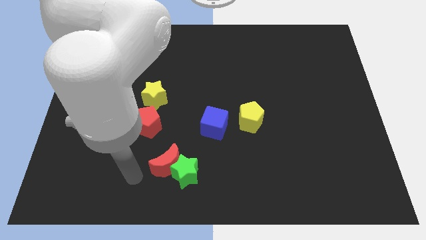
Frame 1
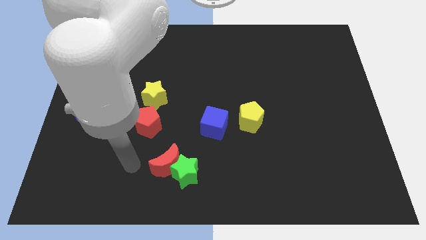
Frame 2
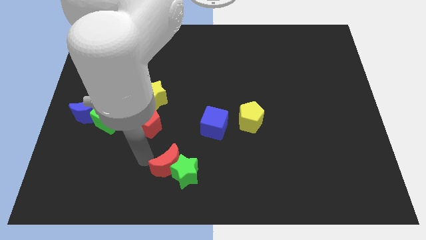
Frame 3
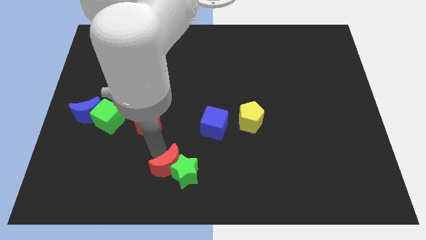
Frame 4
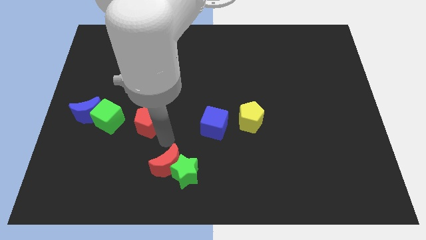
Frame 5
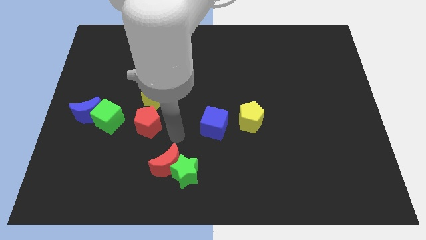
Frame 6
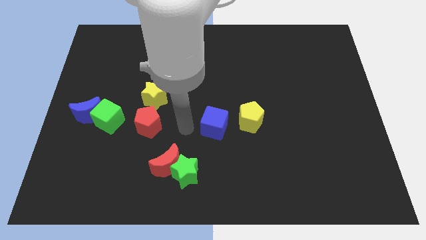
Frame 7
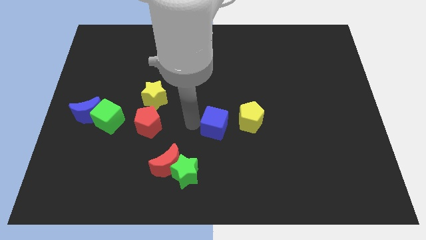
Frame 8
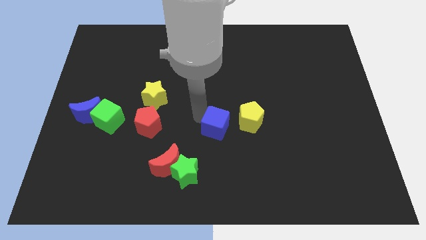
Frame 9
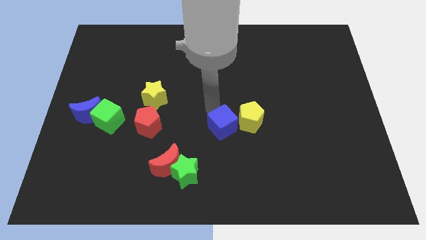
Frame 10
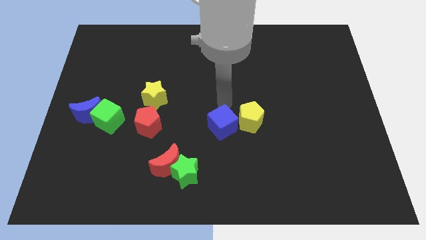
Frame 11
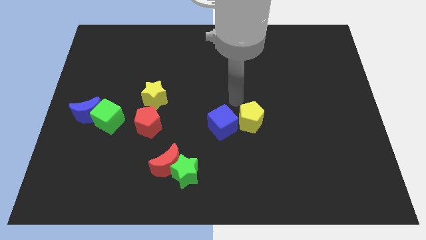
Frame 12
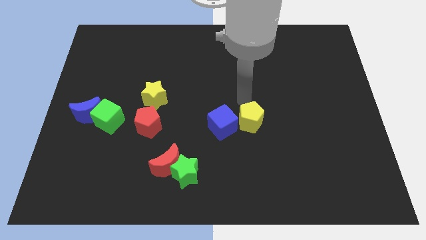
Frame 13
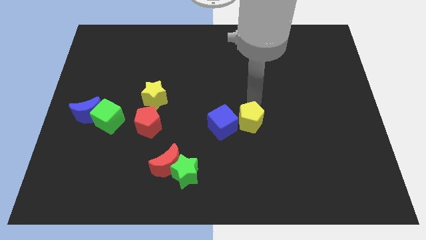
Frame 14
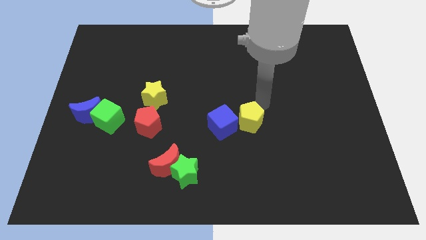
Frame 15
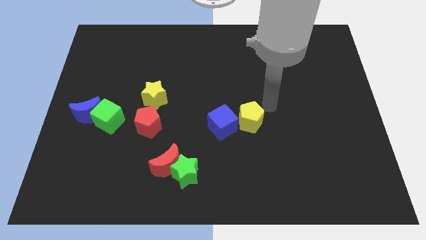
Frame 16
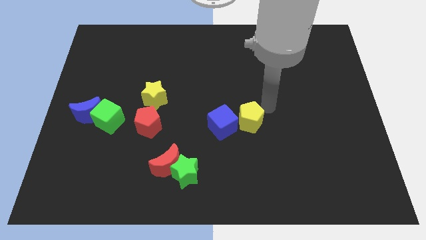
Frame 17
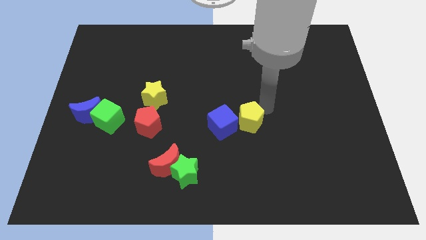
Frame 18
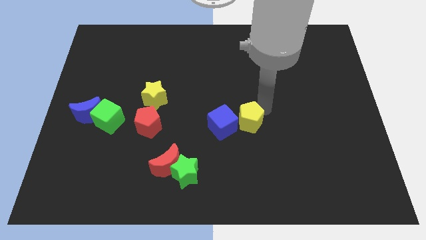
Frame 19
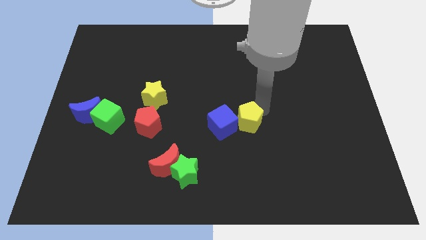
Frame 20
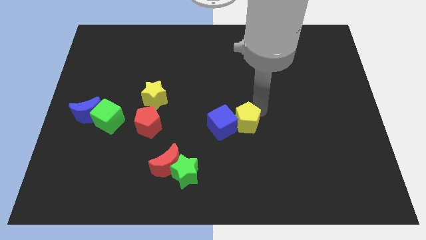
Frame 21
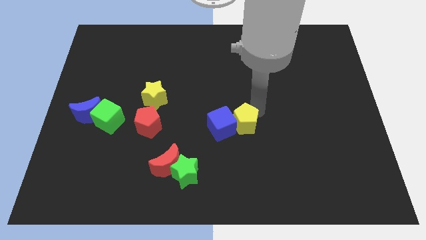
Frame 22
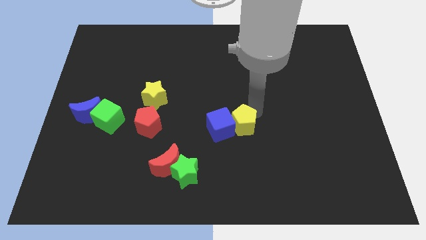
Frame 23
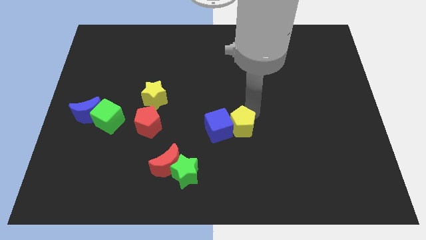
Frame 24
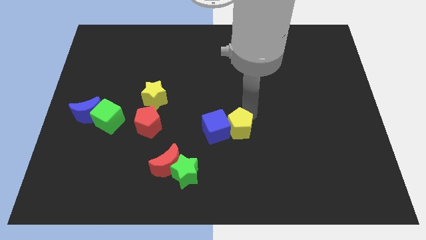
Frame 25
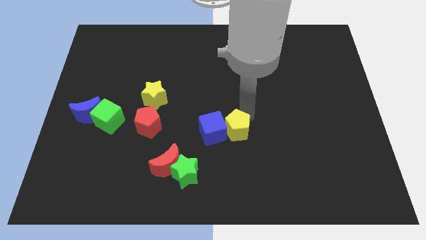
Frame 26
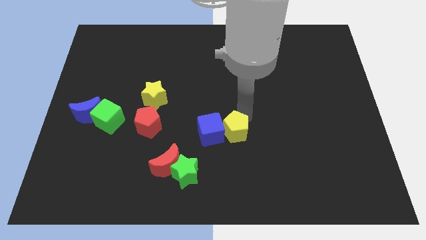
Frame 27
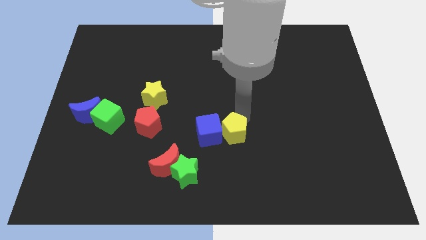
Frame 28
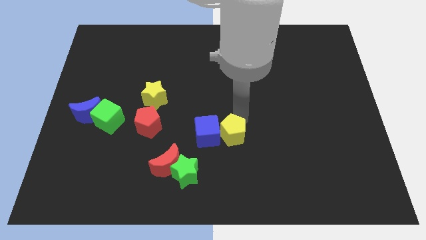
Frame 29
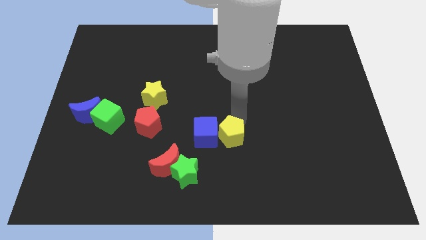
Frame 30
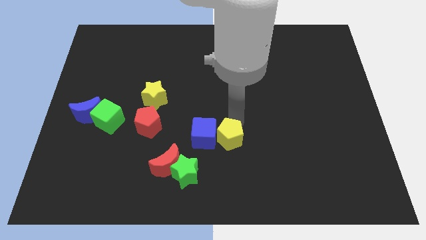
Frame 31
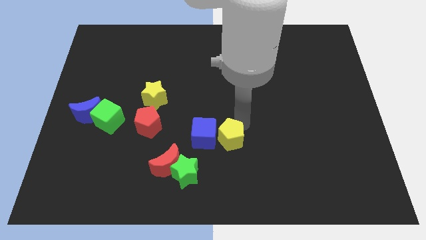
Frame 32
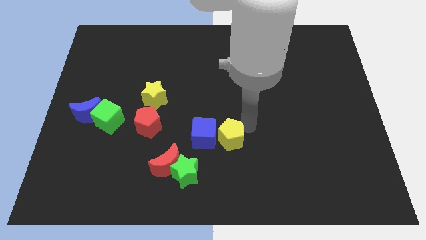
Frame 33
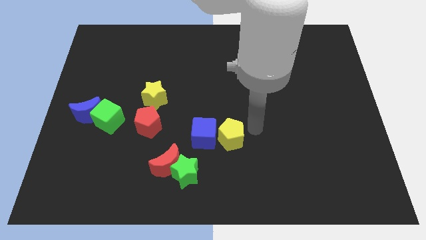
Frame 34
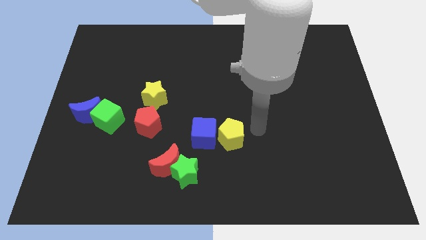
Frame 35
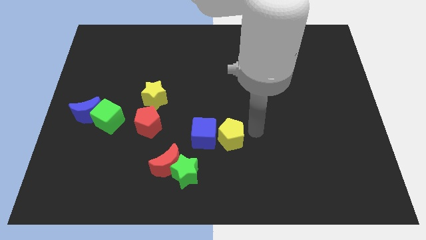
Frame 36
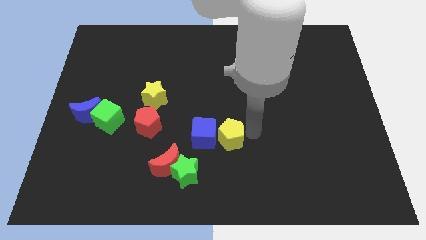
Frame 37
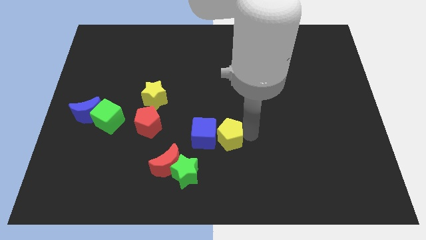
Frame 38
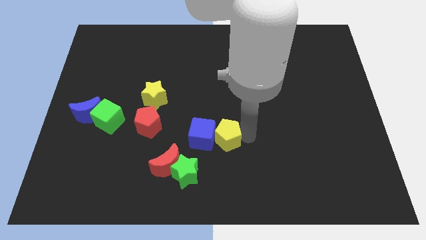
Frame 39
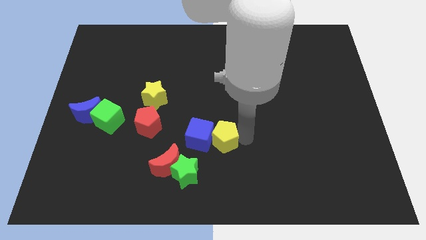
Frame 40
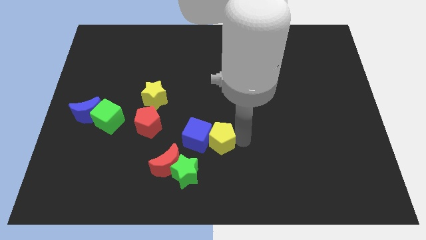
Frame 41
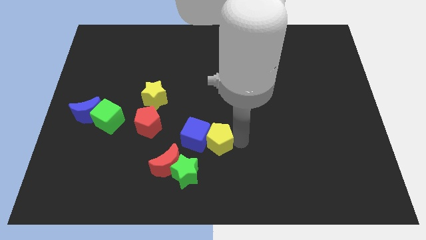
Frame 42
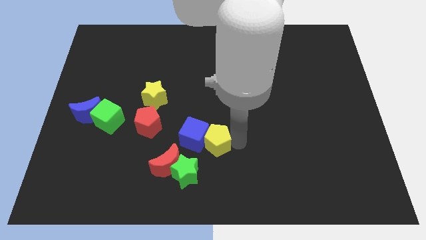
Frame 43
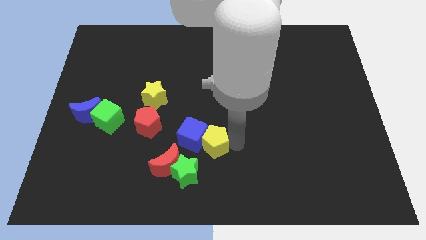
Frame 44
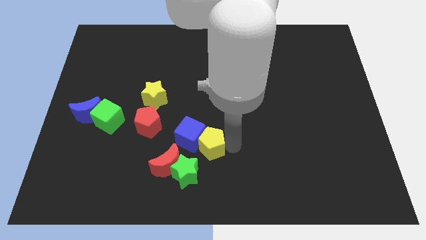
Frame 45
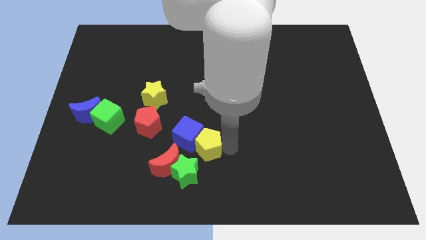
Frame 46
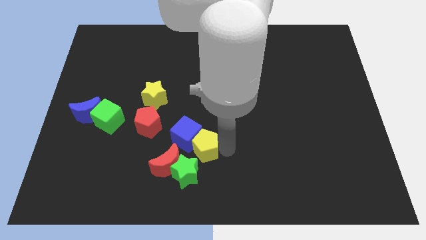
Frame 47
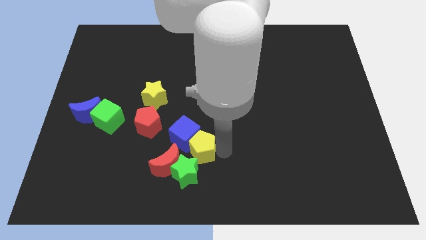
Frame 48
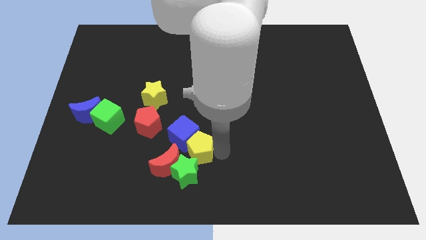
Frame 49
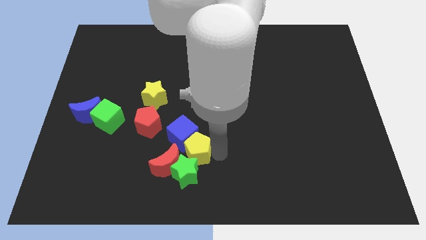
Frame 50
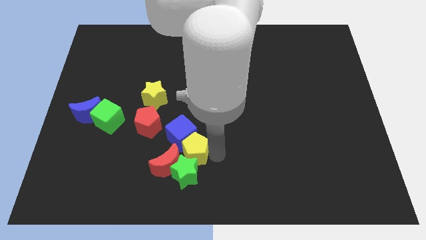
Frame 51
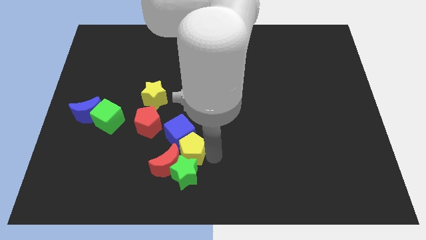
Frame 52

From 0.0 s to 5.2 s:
push the yellow pentagon next to the red moon

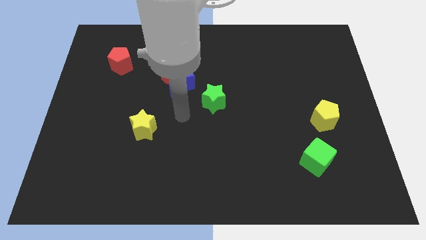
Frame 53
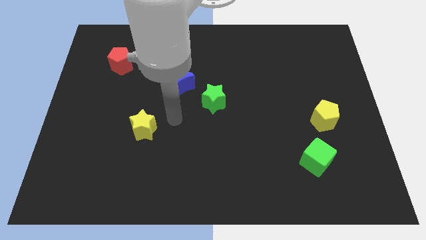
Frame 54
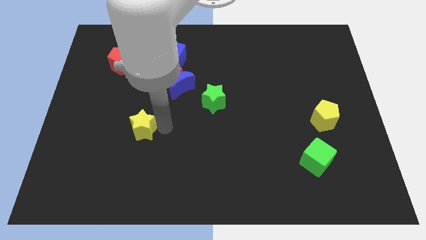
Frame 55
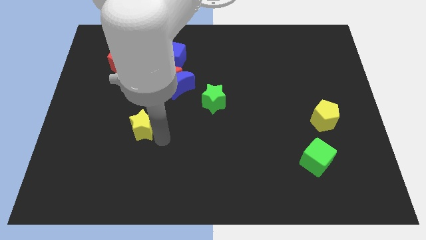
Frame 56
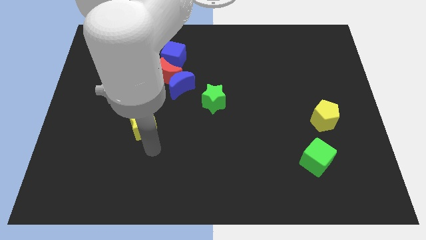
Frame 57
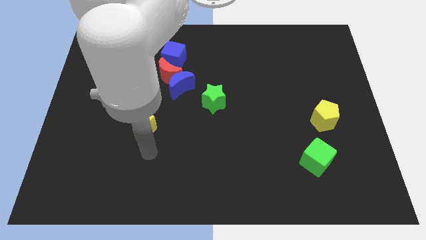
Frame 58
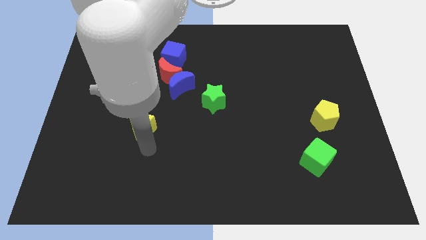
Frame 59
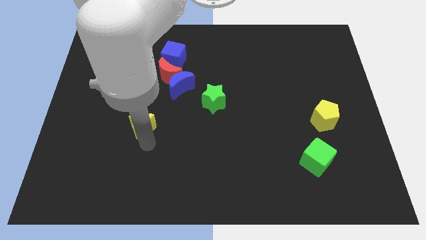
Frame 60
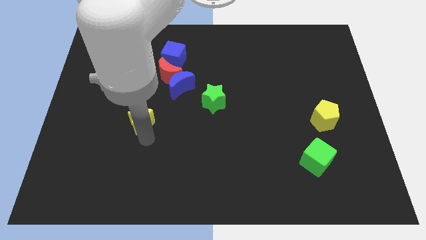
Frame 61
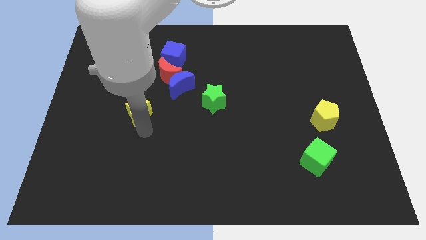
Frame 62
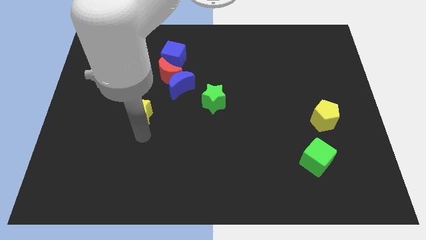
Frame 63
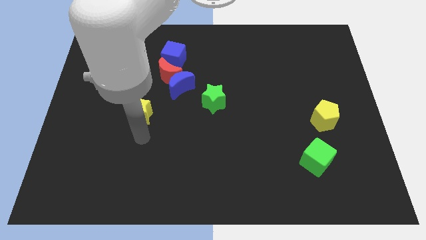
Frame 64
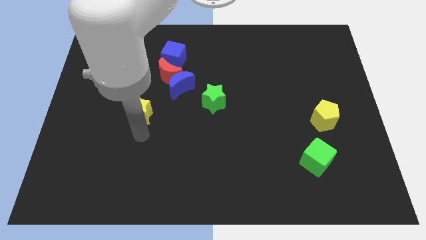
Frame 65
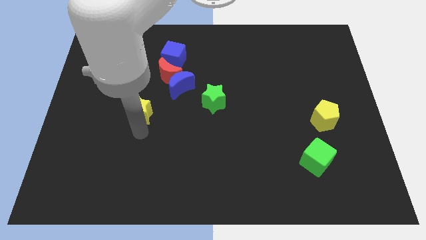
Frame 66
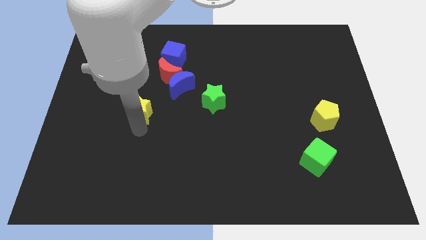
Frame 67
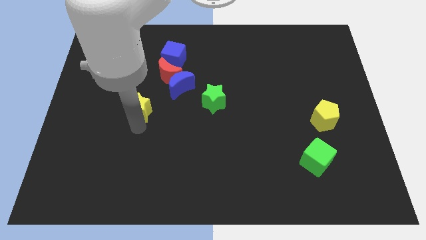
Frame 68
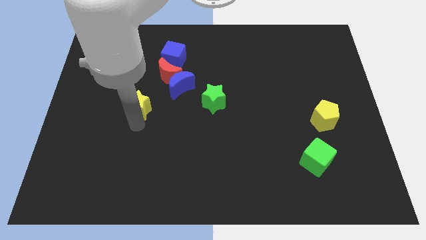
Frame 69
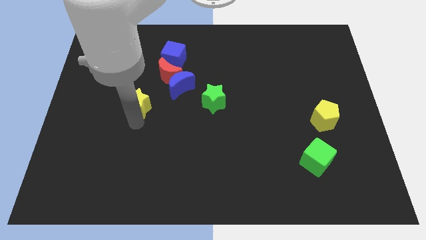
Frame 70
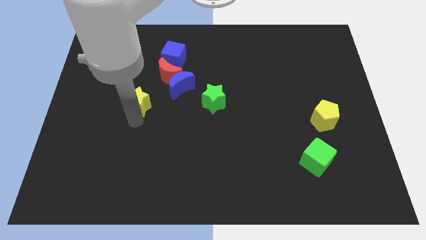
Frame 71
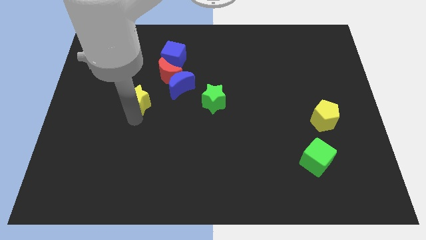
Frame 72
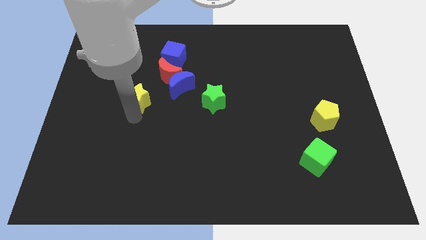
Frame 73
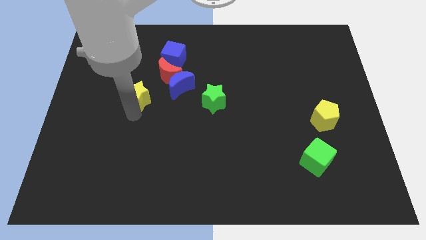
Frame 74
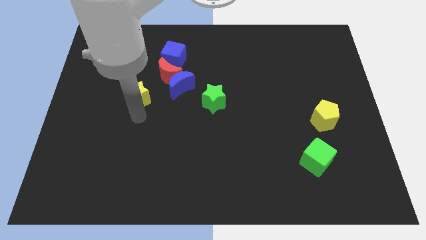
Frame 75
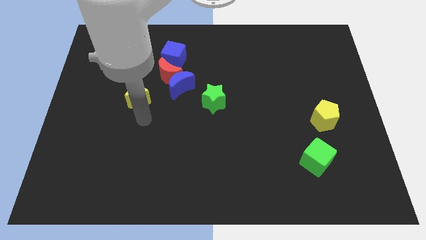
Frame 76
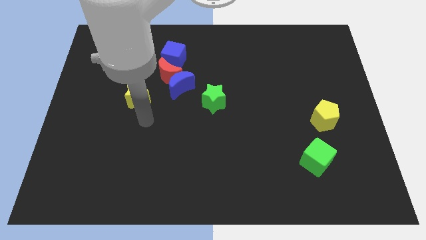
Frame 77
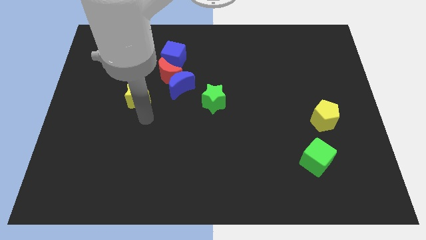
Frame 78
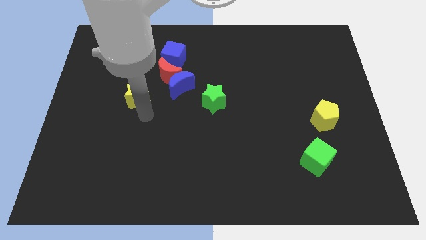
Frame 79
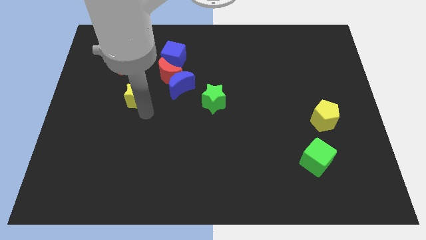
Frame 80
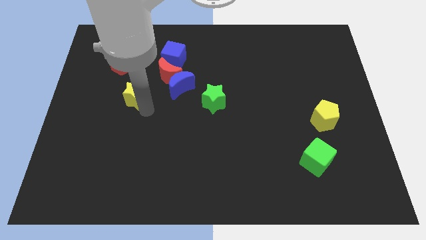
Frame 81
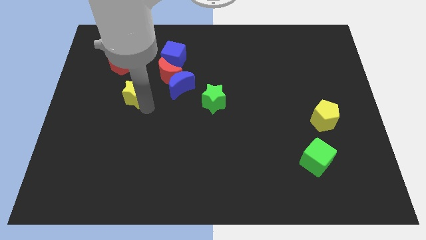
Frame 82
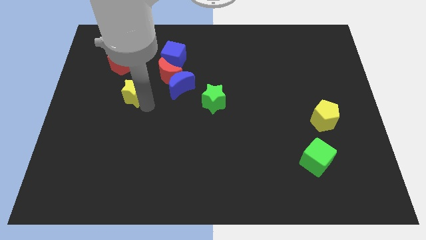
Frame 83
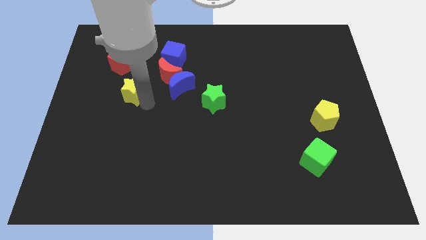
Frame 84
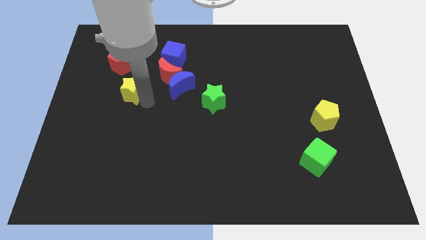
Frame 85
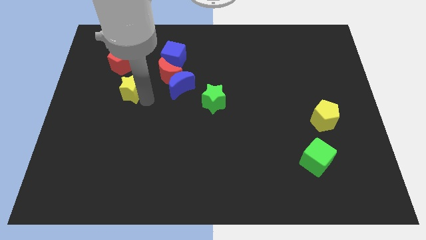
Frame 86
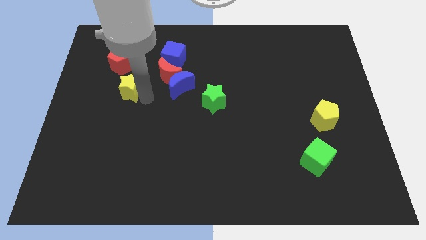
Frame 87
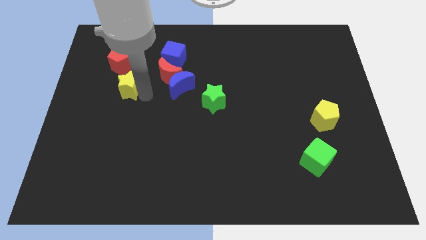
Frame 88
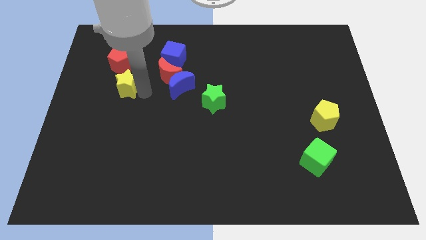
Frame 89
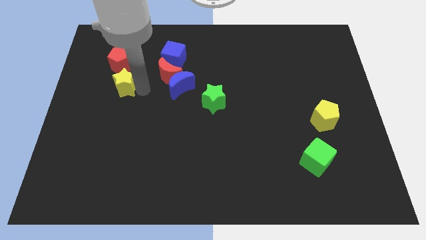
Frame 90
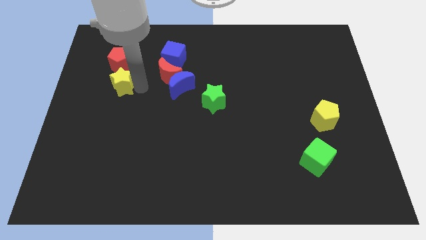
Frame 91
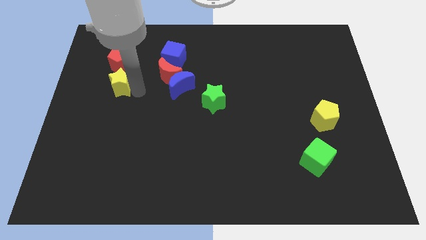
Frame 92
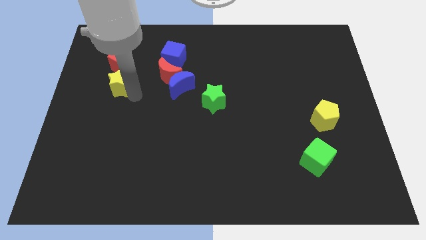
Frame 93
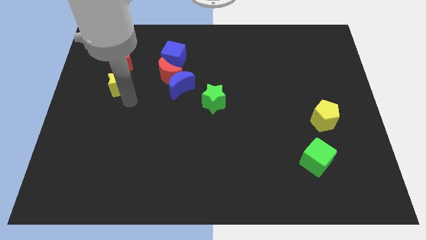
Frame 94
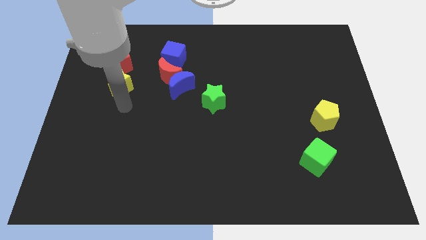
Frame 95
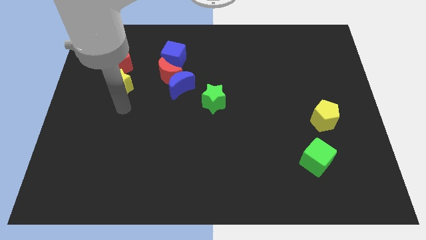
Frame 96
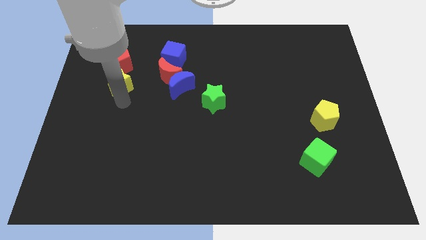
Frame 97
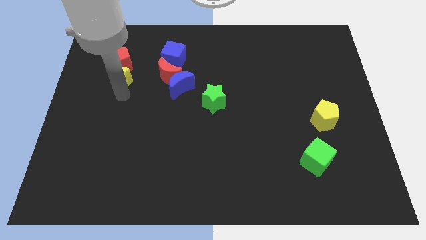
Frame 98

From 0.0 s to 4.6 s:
push the yellow star next to the red pentagon
